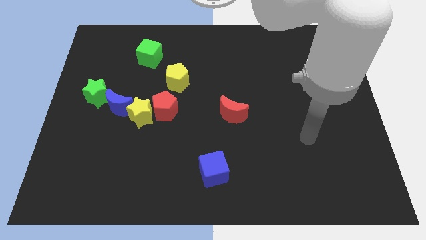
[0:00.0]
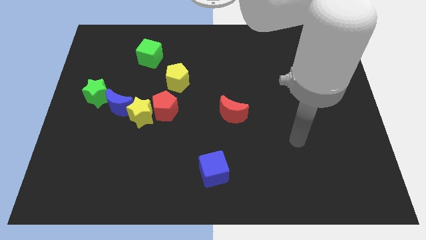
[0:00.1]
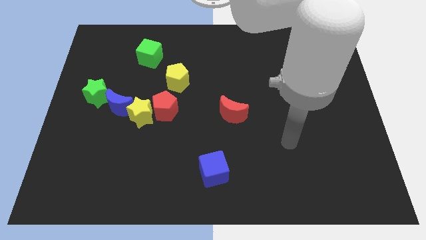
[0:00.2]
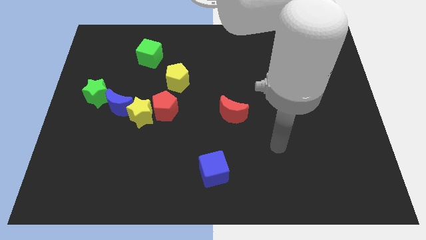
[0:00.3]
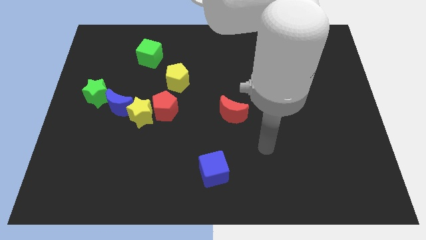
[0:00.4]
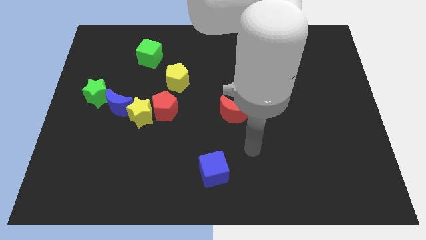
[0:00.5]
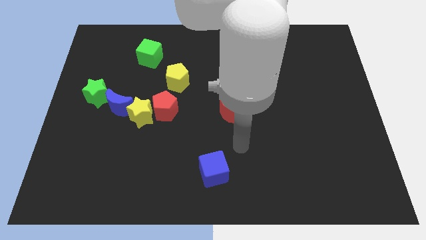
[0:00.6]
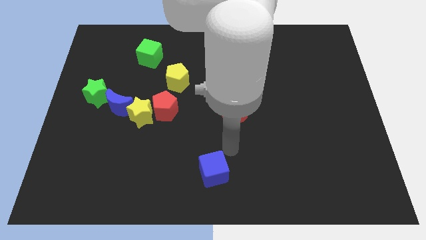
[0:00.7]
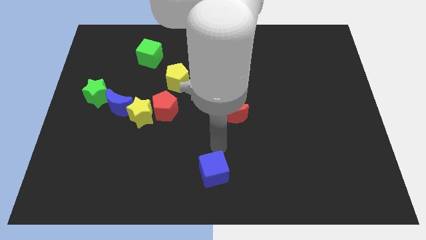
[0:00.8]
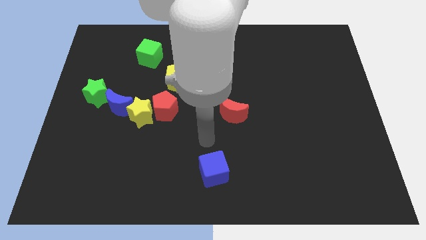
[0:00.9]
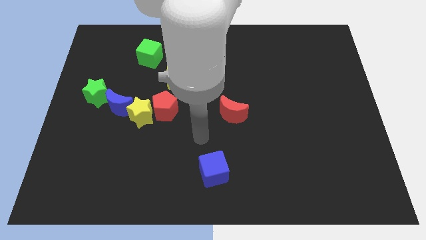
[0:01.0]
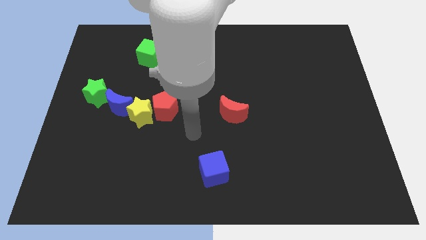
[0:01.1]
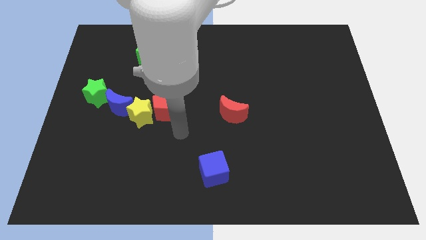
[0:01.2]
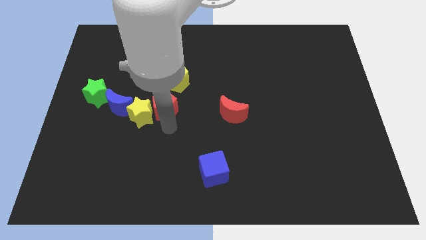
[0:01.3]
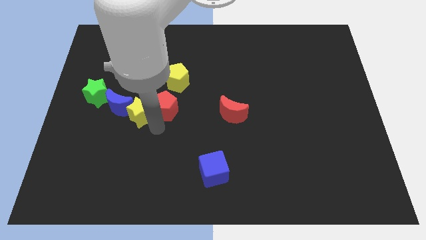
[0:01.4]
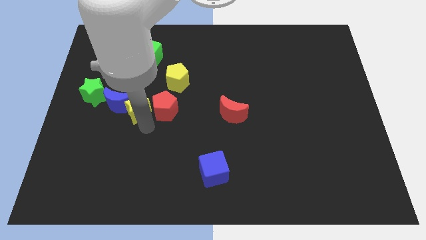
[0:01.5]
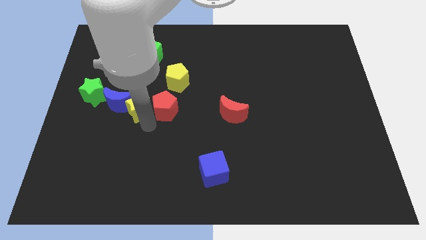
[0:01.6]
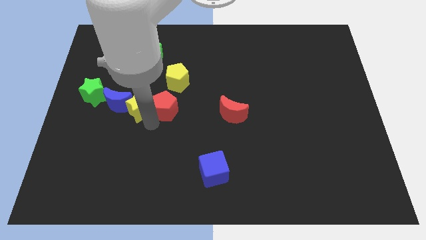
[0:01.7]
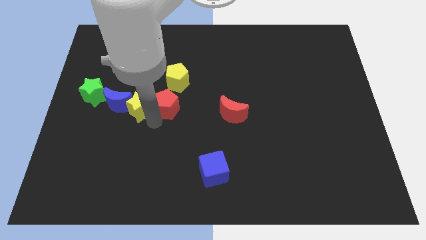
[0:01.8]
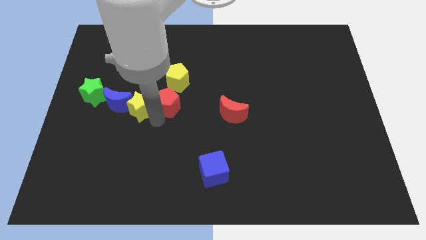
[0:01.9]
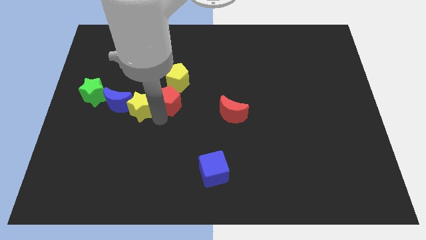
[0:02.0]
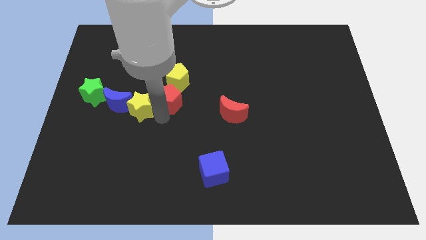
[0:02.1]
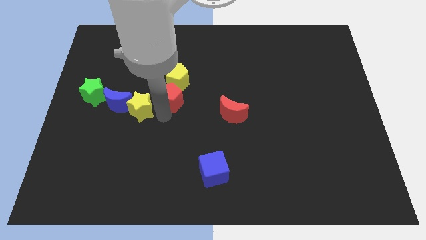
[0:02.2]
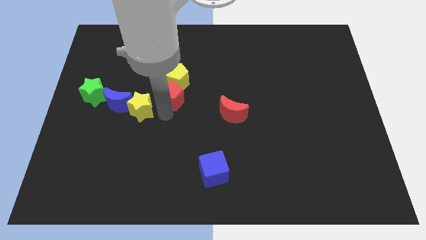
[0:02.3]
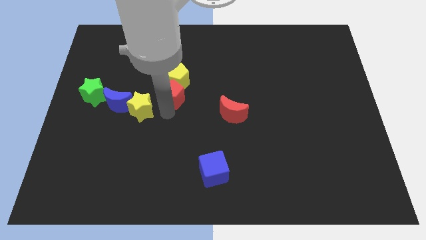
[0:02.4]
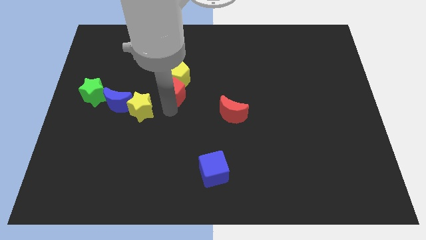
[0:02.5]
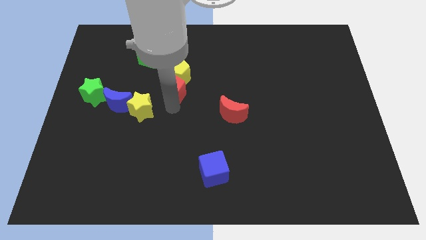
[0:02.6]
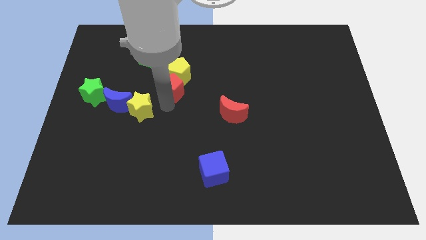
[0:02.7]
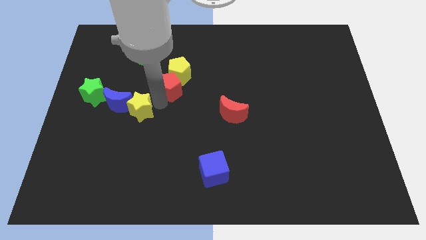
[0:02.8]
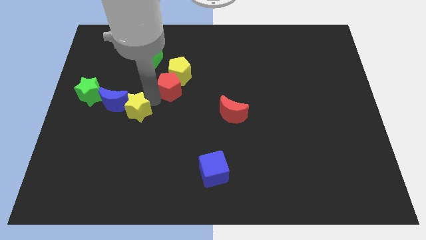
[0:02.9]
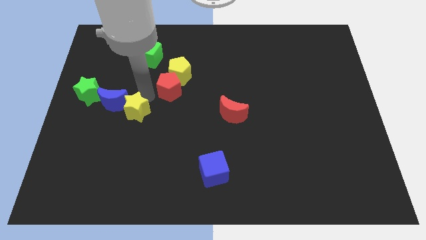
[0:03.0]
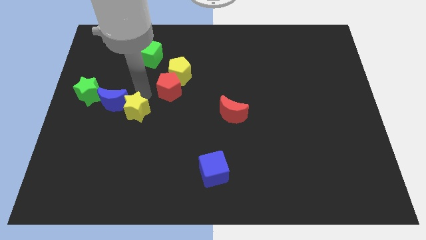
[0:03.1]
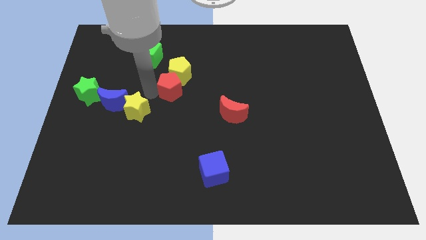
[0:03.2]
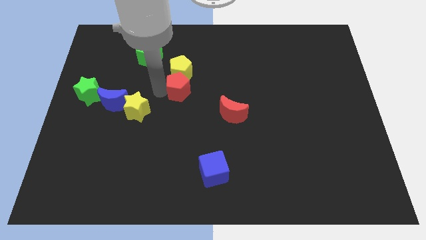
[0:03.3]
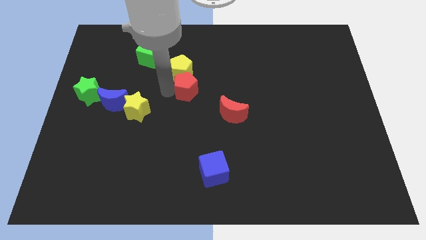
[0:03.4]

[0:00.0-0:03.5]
push the red pentagon upwards and then to the right somewhat

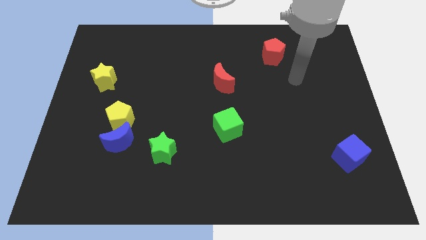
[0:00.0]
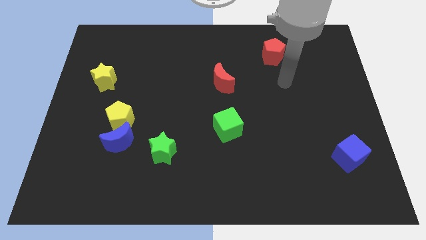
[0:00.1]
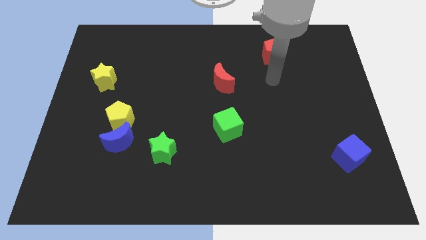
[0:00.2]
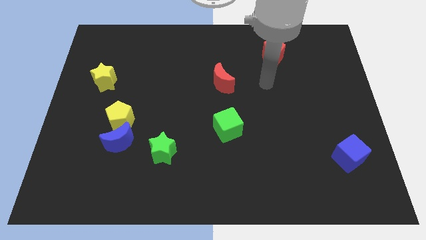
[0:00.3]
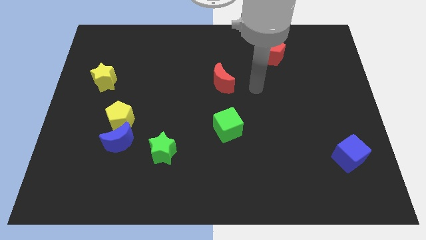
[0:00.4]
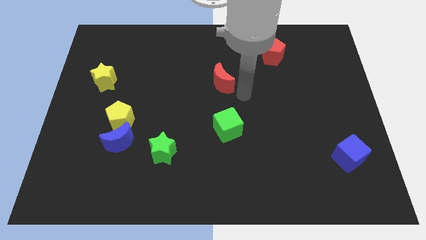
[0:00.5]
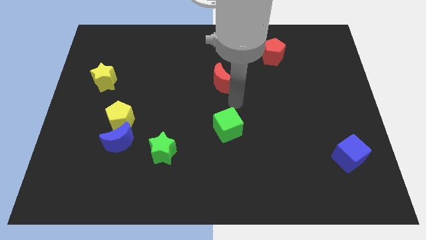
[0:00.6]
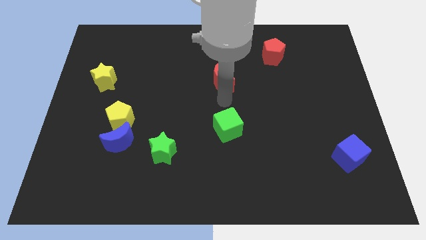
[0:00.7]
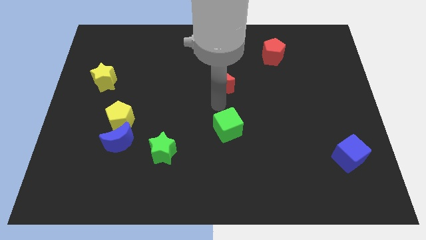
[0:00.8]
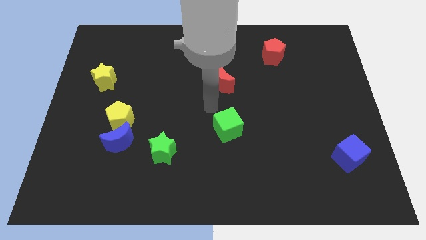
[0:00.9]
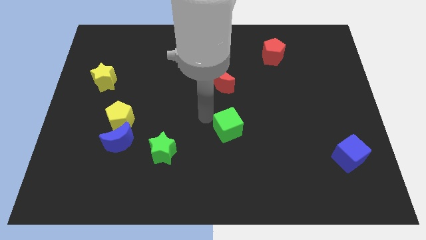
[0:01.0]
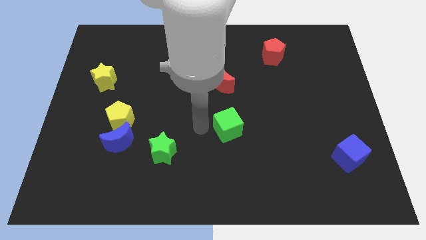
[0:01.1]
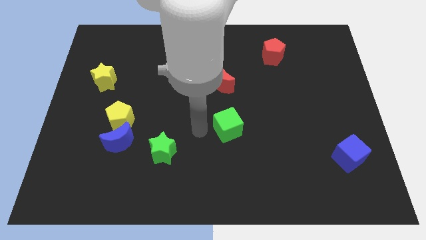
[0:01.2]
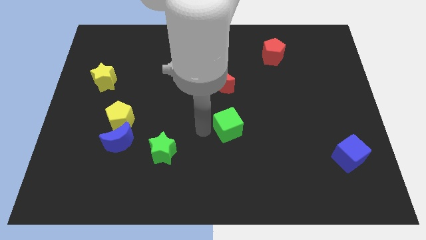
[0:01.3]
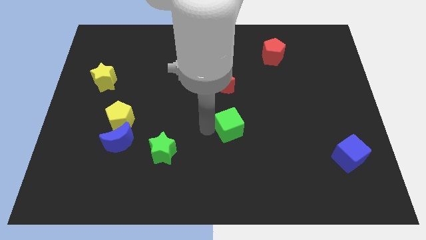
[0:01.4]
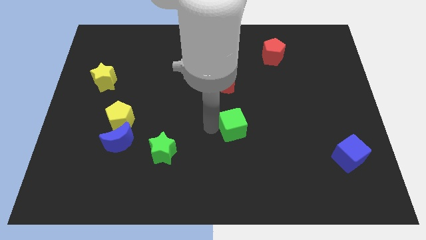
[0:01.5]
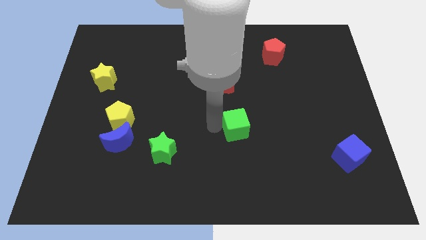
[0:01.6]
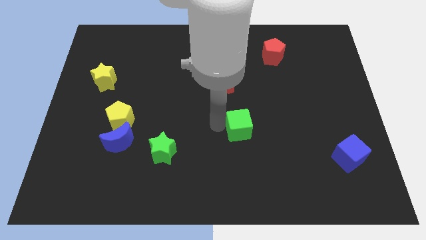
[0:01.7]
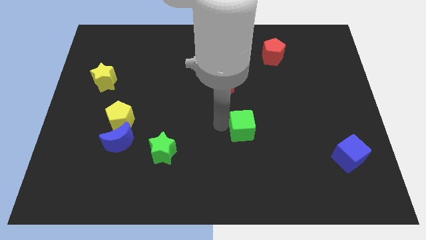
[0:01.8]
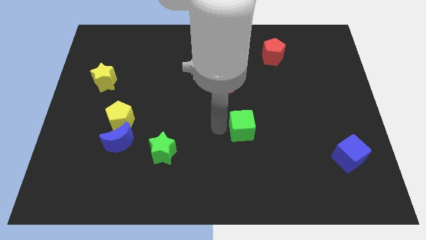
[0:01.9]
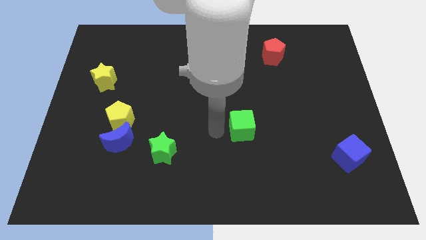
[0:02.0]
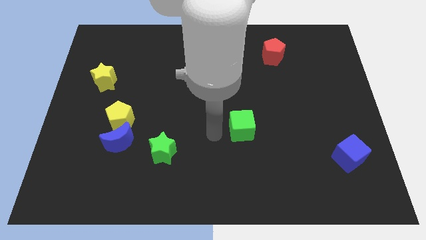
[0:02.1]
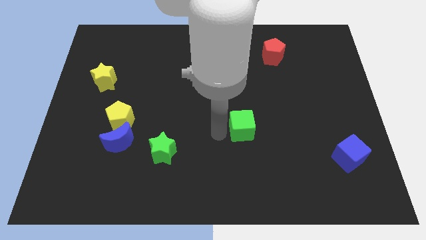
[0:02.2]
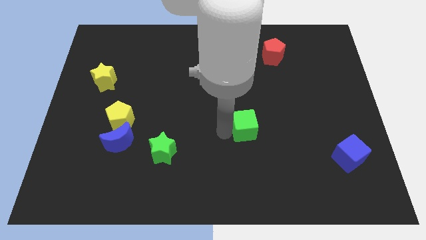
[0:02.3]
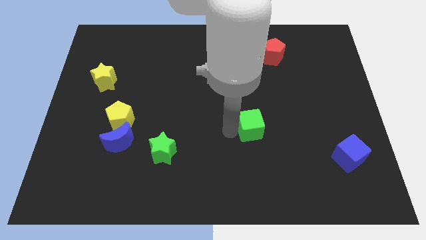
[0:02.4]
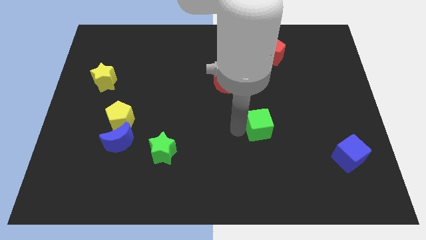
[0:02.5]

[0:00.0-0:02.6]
slide the green cube to the right slightly

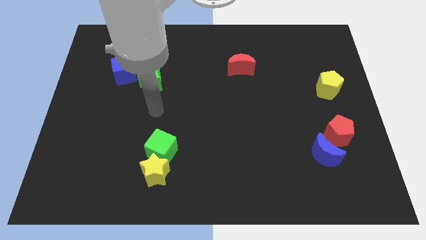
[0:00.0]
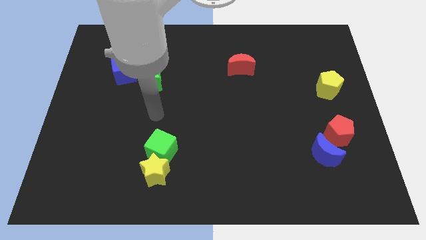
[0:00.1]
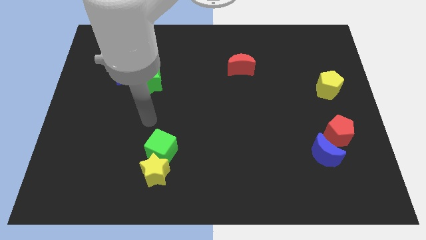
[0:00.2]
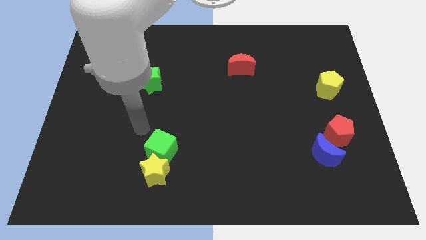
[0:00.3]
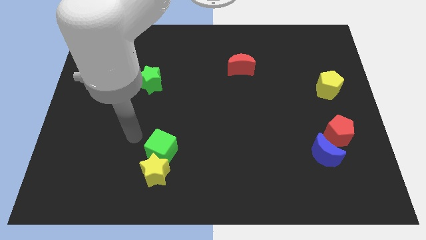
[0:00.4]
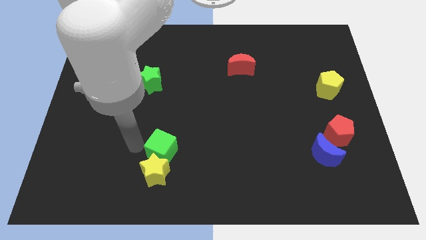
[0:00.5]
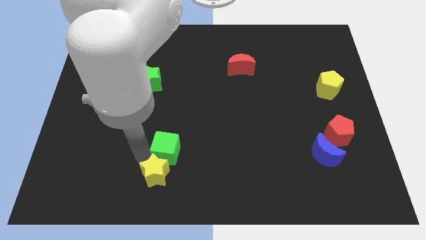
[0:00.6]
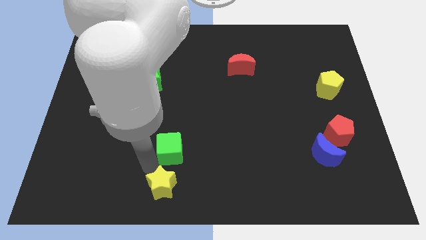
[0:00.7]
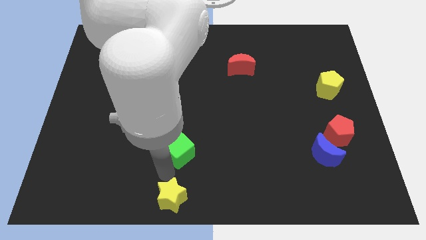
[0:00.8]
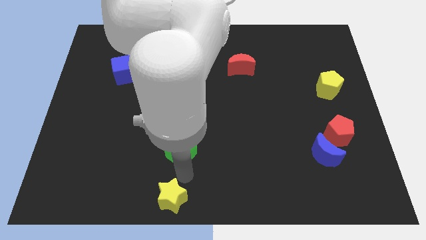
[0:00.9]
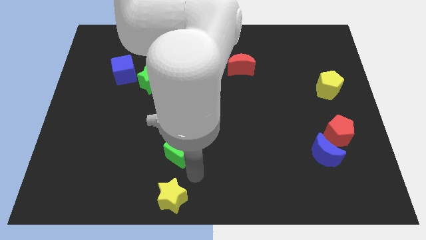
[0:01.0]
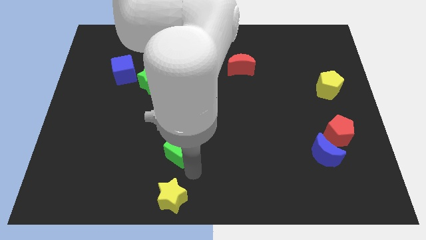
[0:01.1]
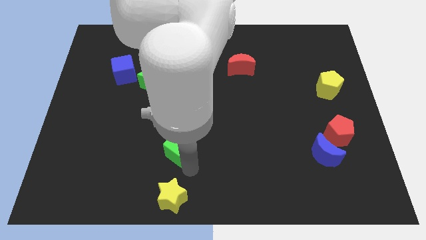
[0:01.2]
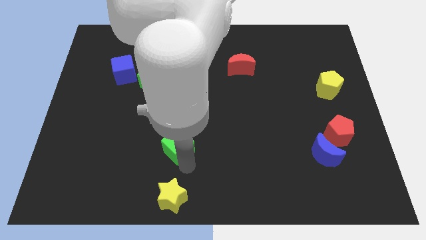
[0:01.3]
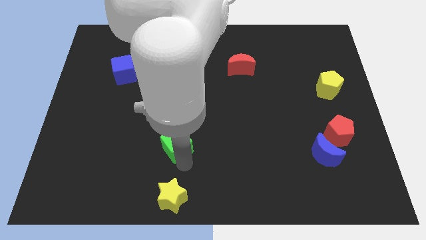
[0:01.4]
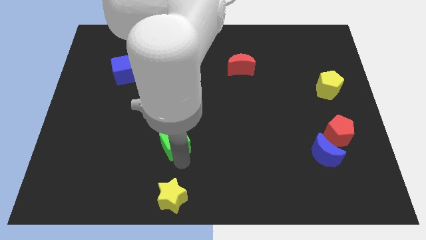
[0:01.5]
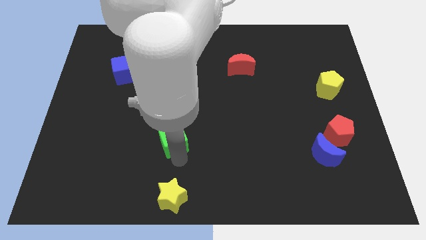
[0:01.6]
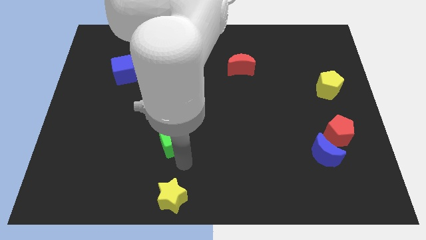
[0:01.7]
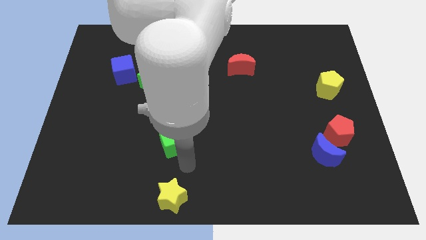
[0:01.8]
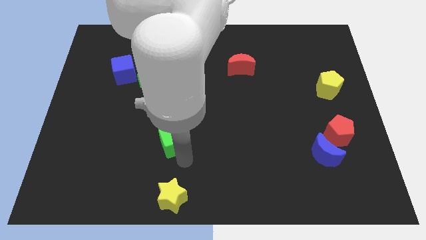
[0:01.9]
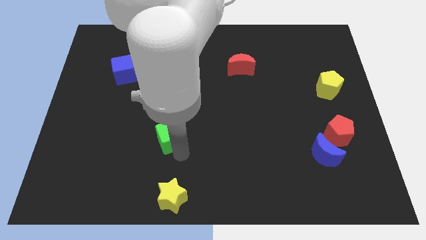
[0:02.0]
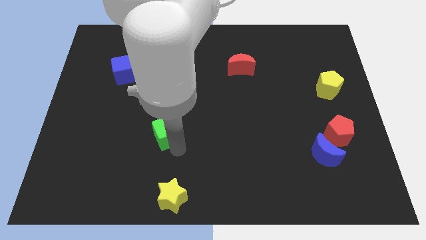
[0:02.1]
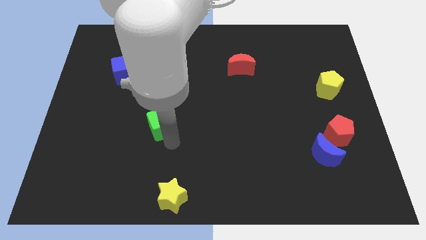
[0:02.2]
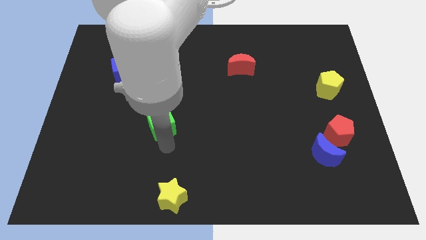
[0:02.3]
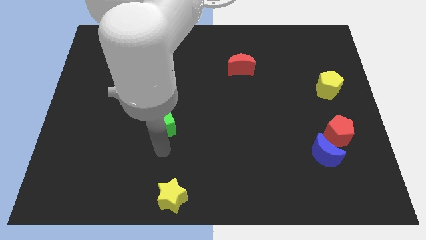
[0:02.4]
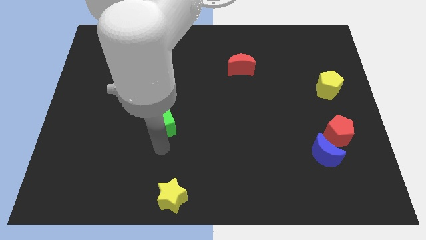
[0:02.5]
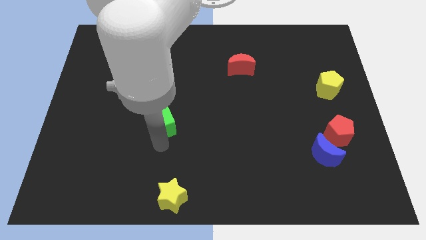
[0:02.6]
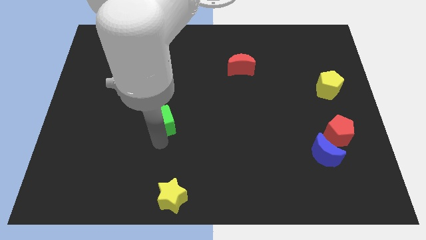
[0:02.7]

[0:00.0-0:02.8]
slightly push the green cube up
